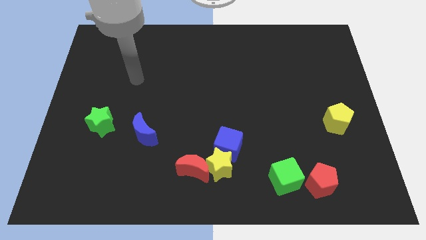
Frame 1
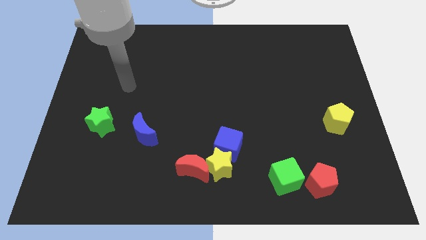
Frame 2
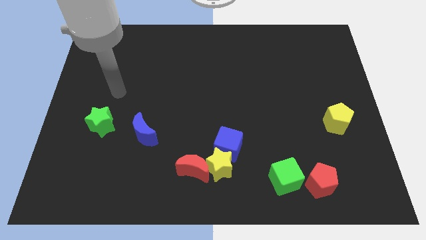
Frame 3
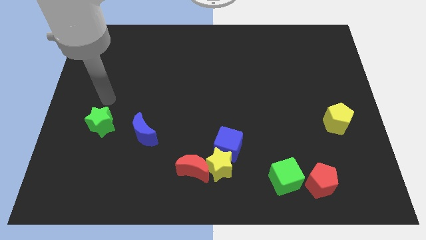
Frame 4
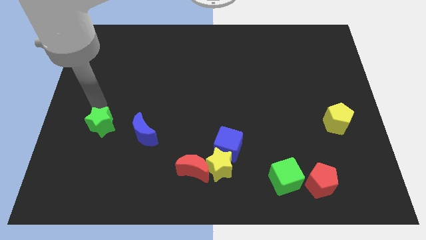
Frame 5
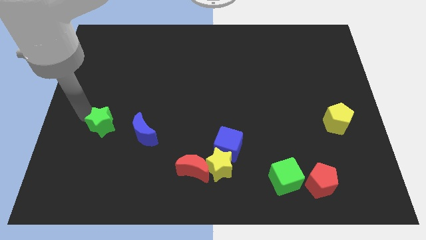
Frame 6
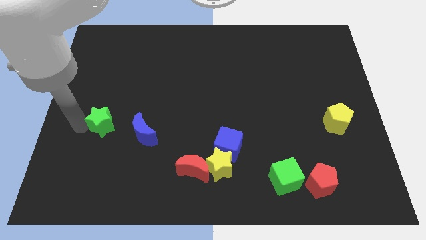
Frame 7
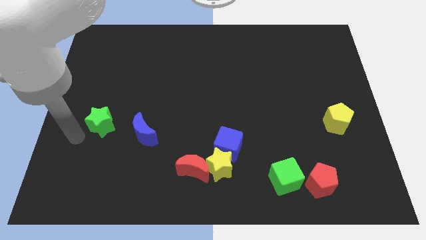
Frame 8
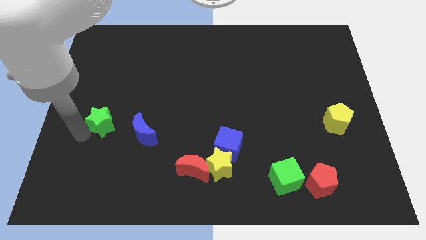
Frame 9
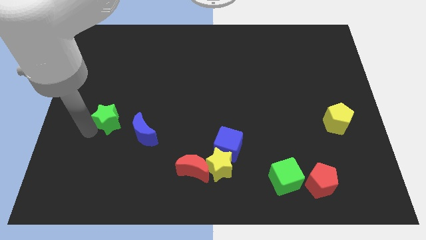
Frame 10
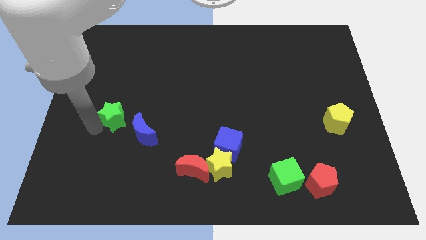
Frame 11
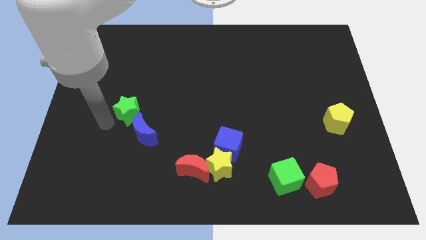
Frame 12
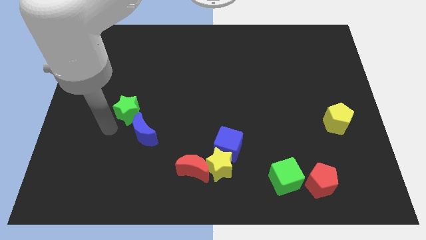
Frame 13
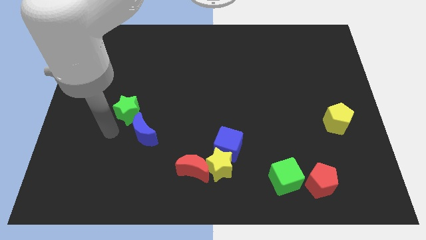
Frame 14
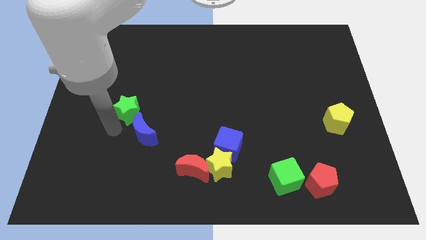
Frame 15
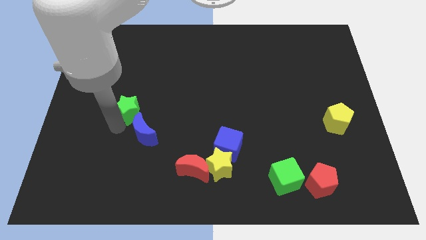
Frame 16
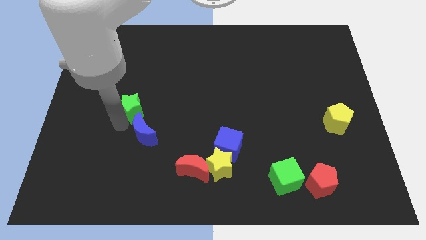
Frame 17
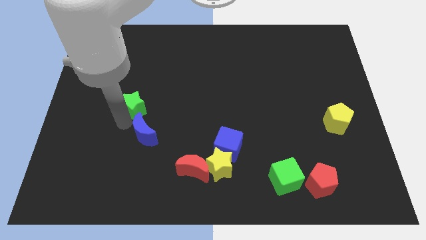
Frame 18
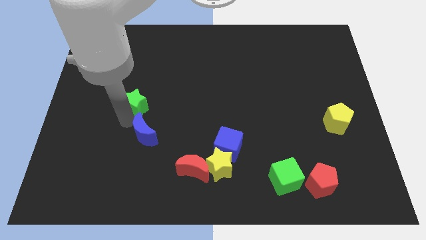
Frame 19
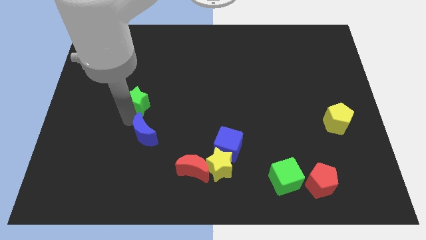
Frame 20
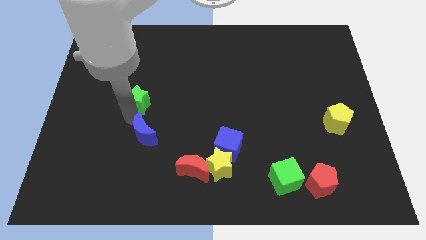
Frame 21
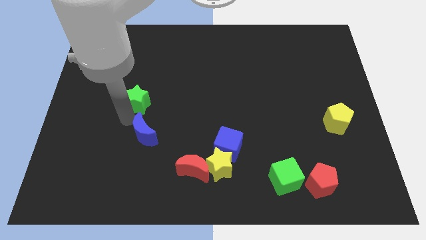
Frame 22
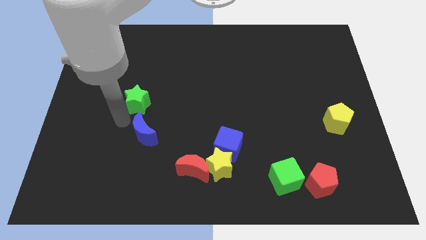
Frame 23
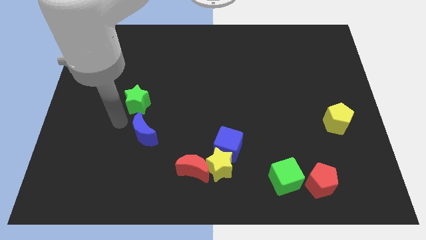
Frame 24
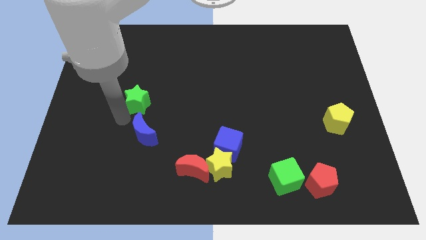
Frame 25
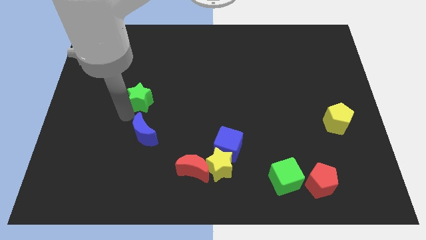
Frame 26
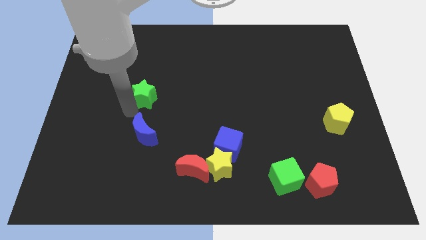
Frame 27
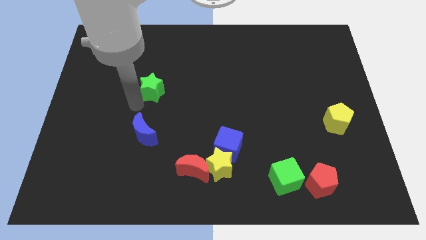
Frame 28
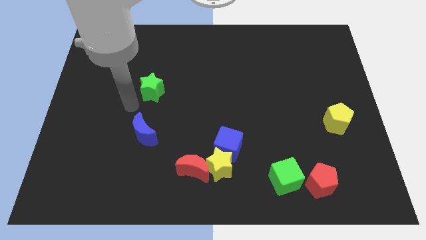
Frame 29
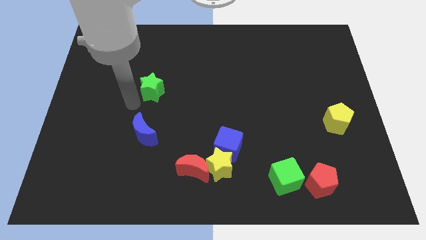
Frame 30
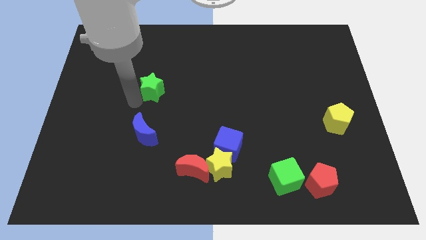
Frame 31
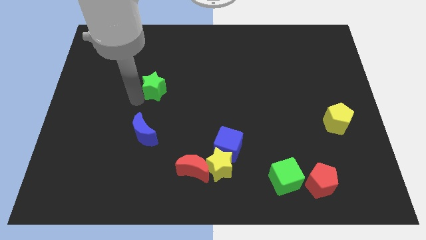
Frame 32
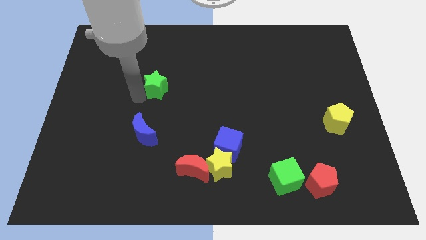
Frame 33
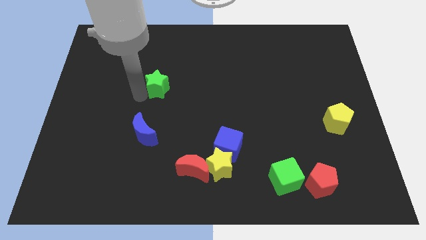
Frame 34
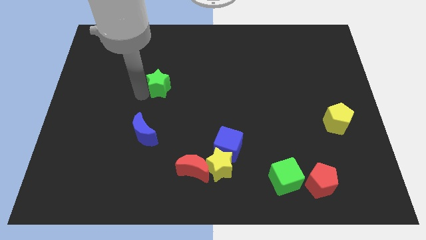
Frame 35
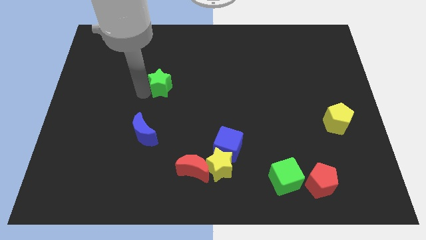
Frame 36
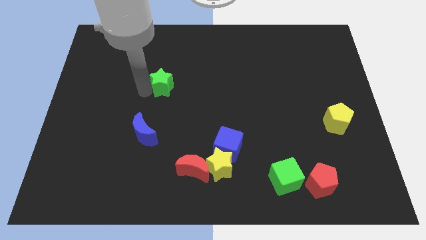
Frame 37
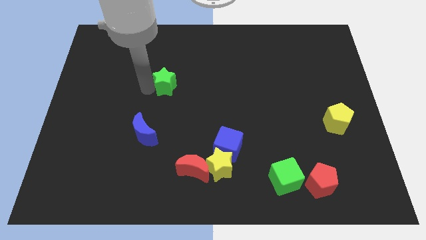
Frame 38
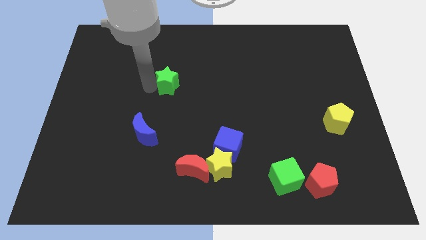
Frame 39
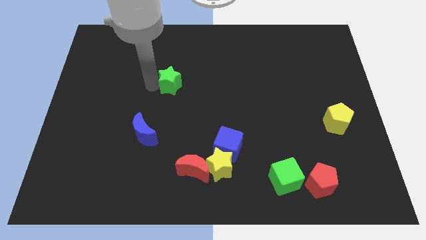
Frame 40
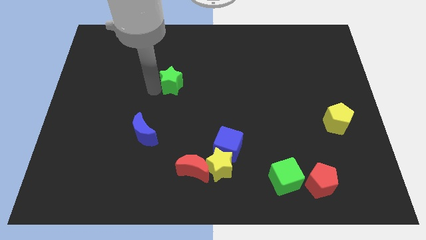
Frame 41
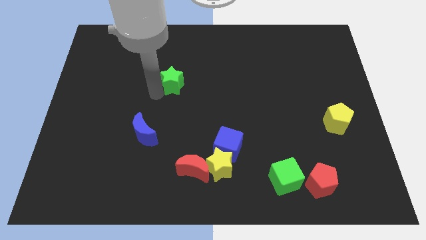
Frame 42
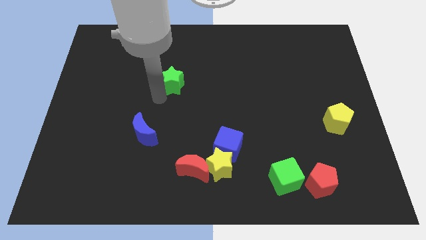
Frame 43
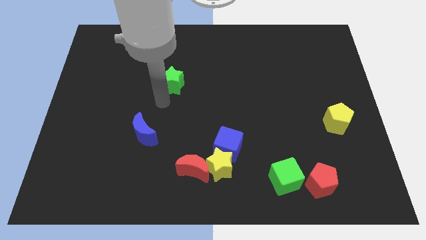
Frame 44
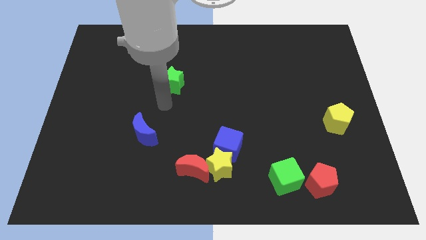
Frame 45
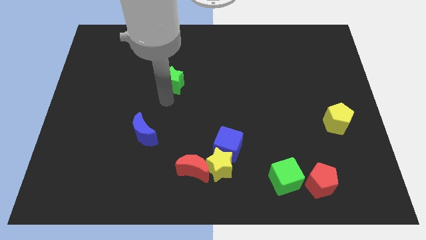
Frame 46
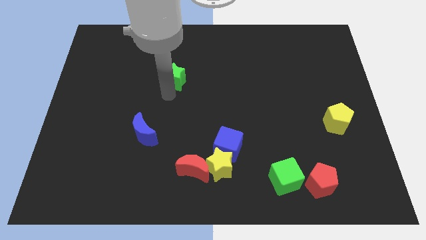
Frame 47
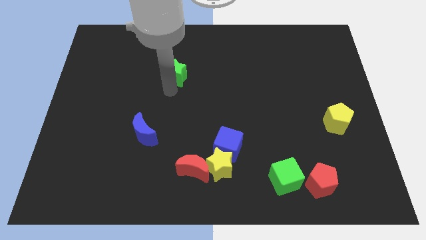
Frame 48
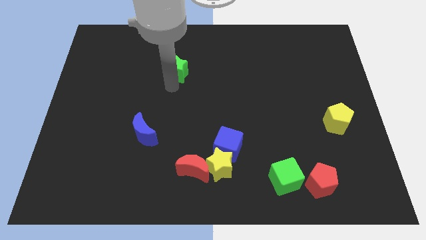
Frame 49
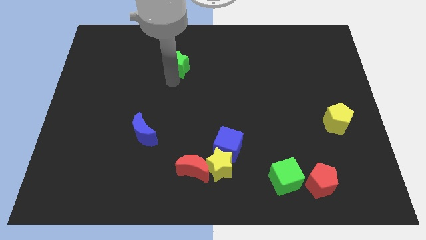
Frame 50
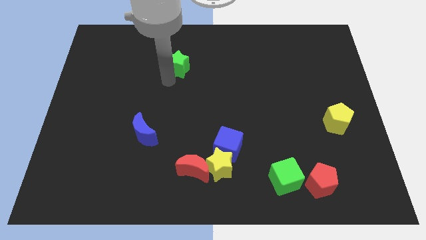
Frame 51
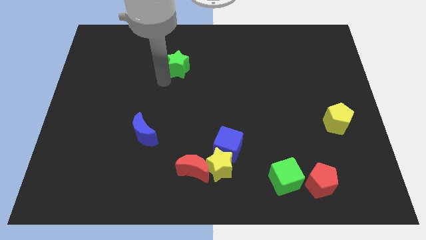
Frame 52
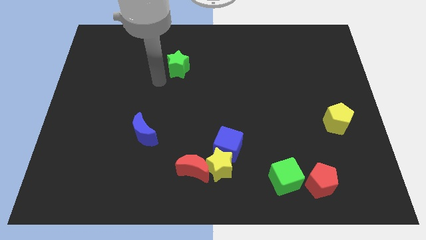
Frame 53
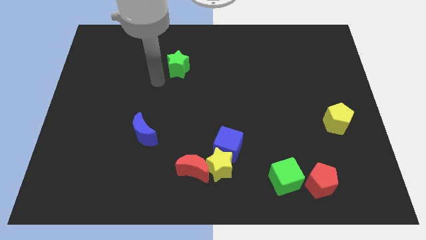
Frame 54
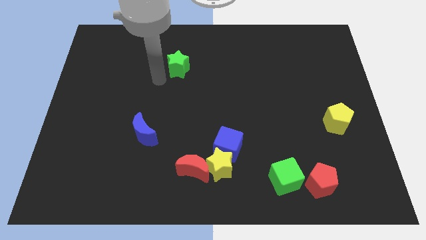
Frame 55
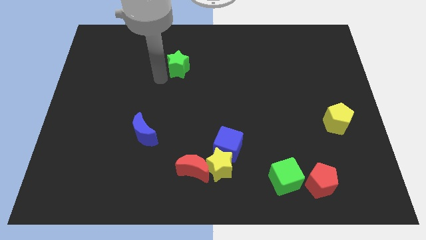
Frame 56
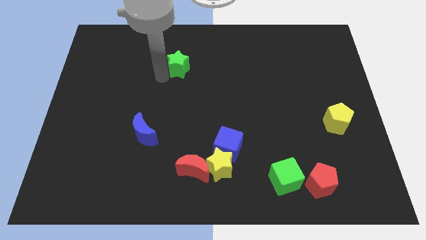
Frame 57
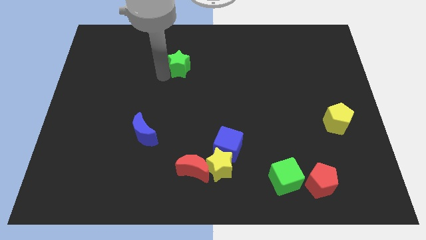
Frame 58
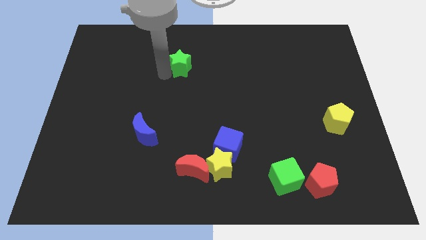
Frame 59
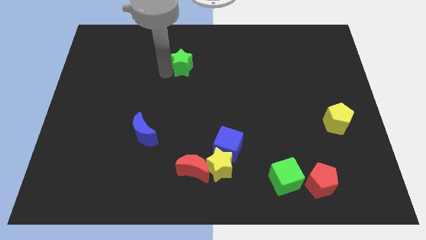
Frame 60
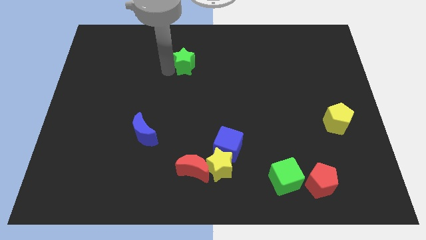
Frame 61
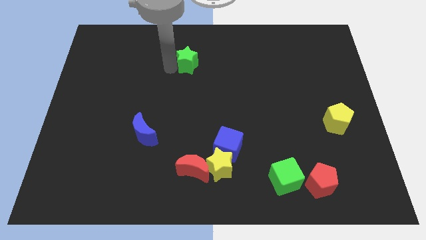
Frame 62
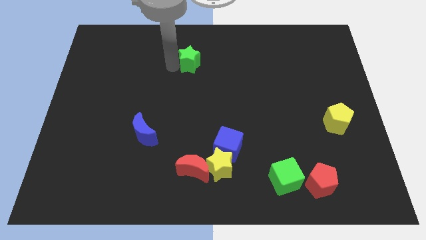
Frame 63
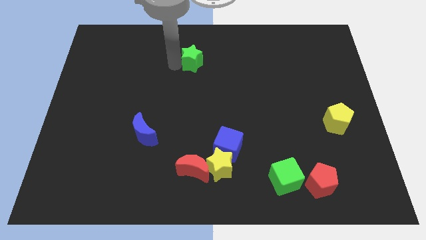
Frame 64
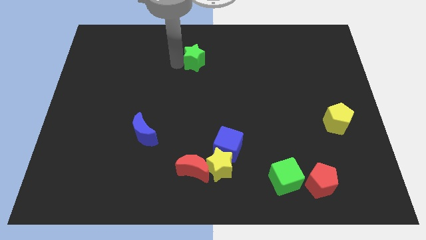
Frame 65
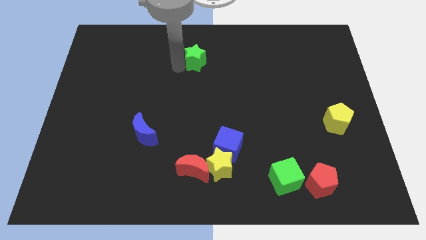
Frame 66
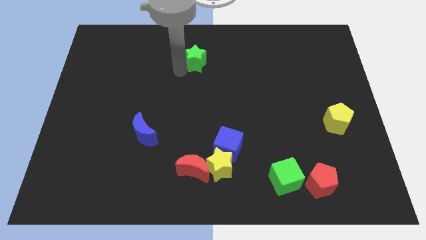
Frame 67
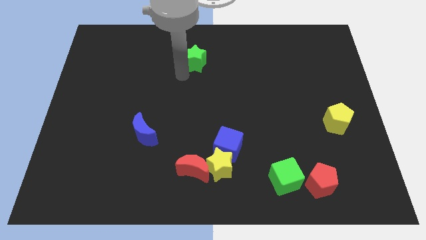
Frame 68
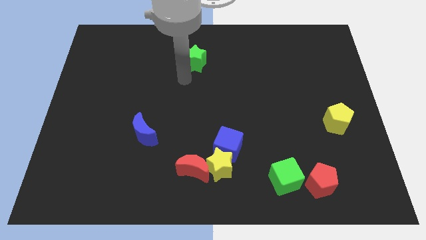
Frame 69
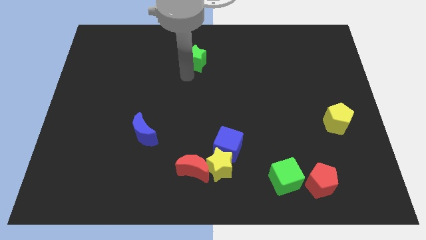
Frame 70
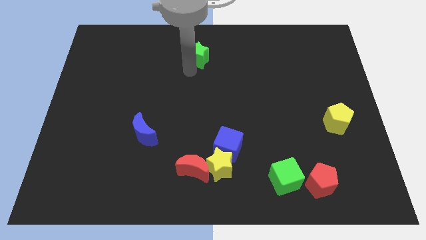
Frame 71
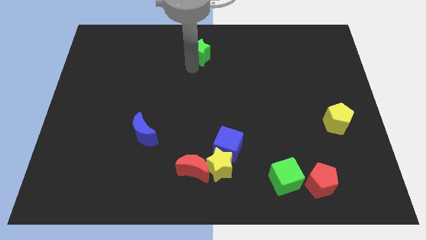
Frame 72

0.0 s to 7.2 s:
push the green star to the towards your base

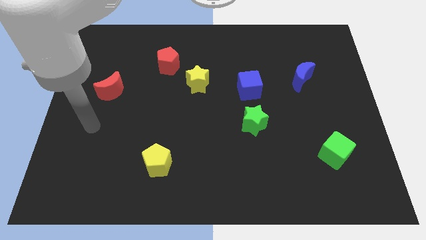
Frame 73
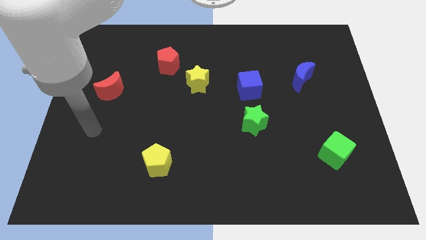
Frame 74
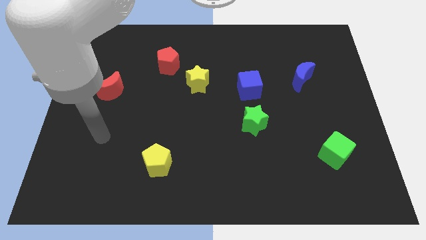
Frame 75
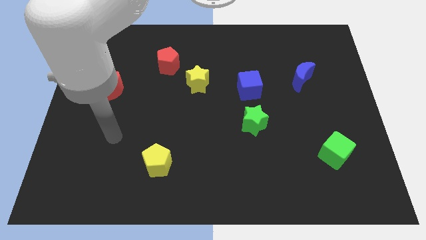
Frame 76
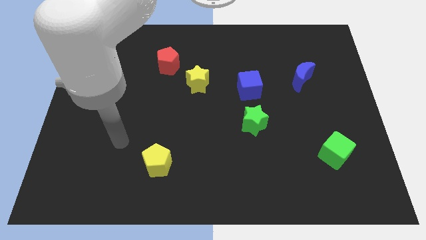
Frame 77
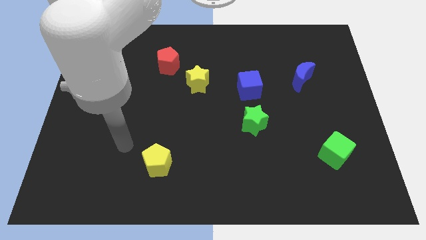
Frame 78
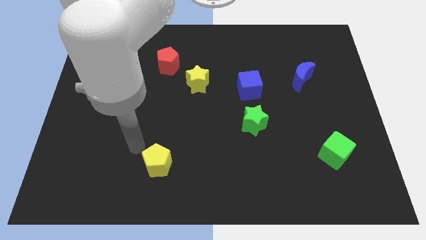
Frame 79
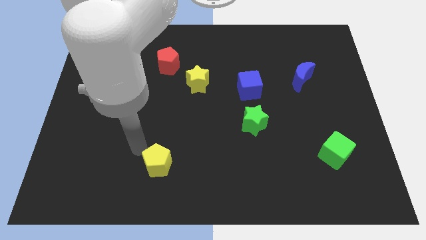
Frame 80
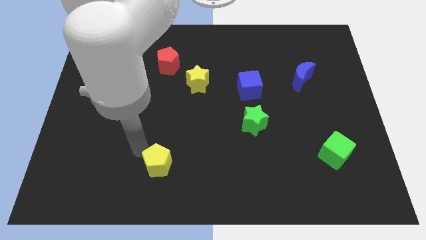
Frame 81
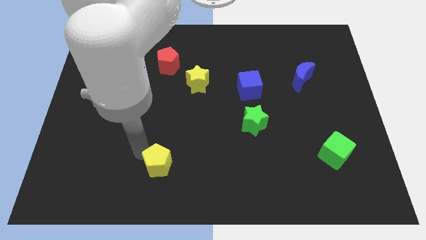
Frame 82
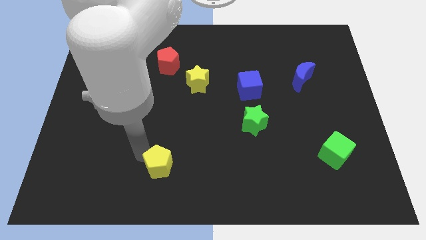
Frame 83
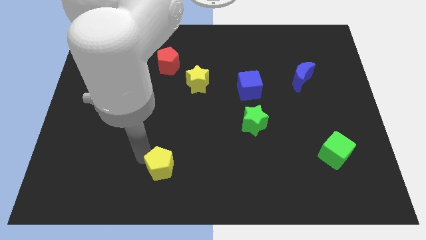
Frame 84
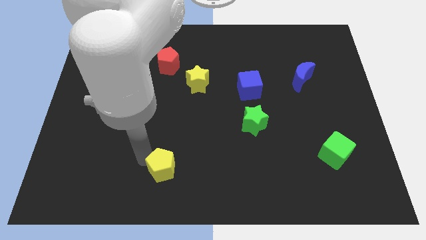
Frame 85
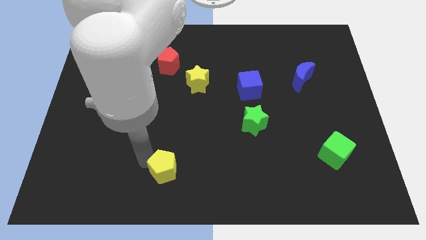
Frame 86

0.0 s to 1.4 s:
push the yellow pentagon to the bottom
